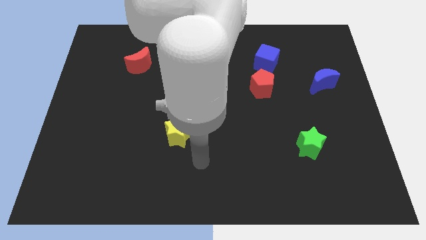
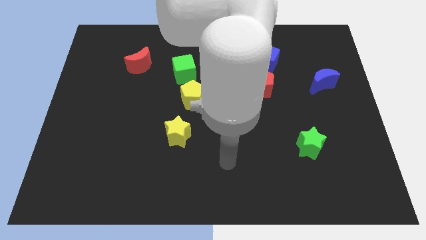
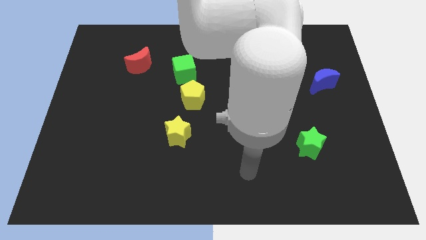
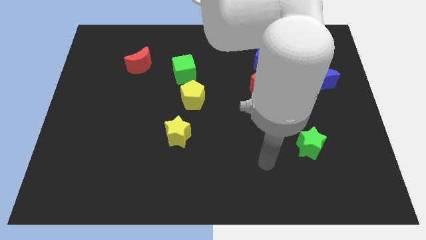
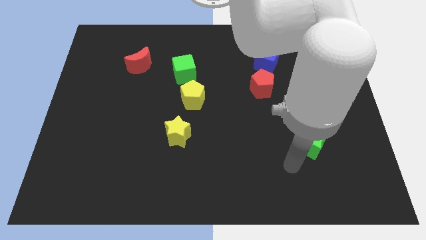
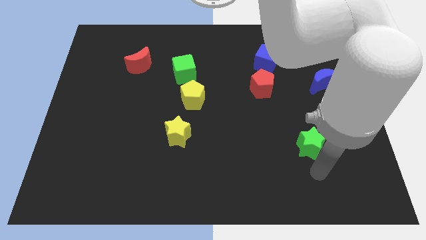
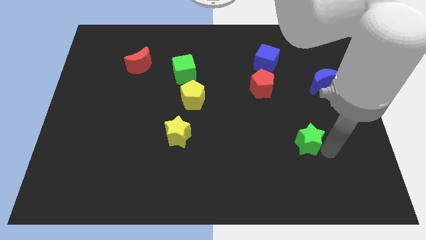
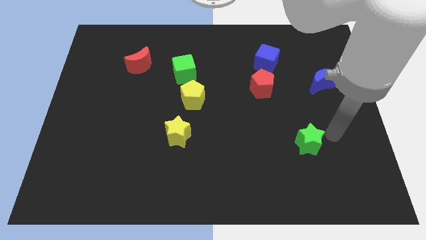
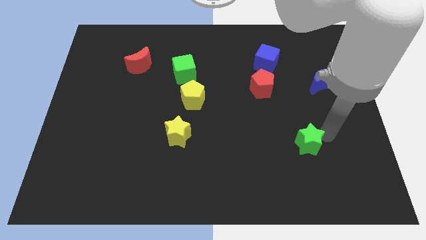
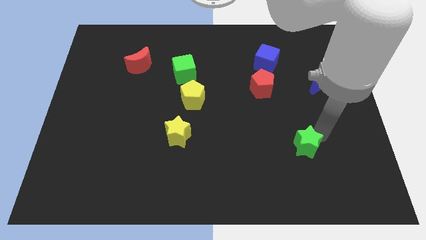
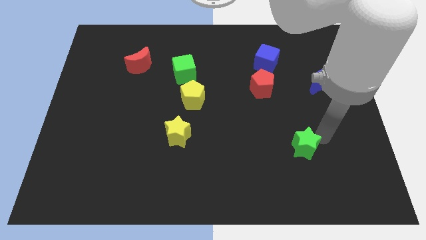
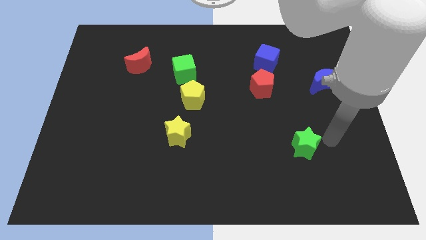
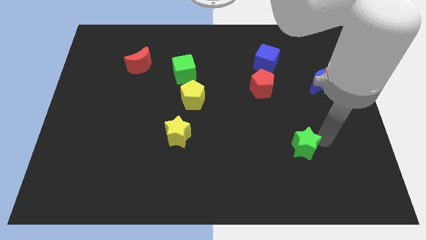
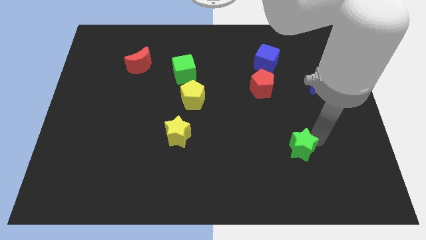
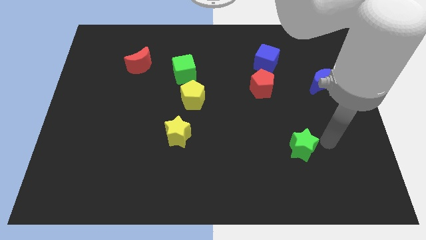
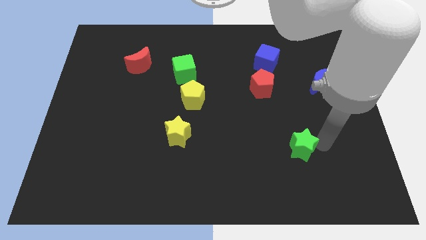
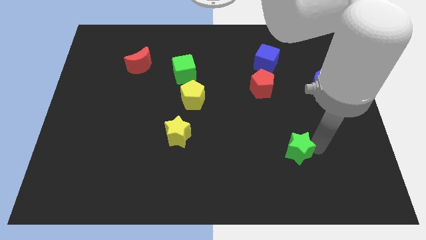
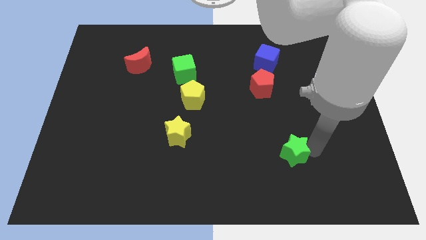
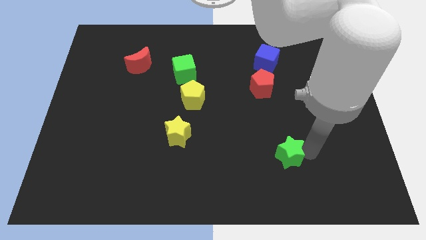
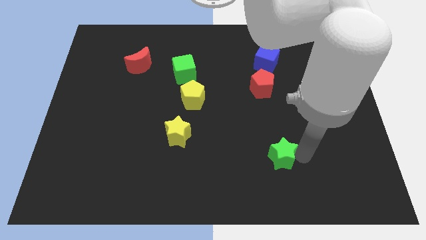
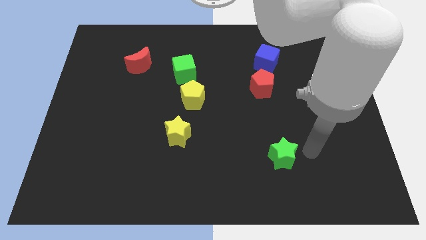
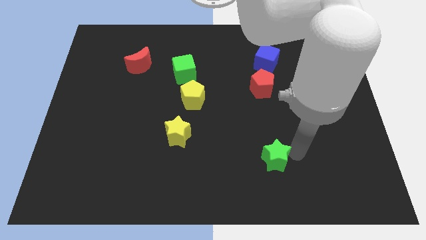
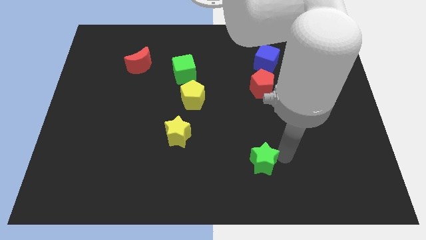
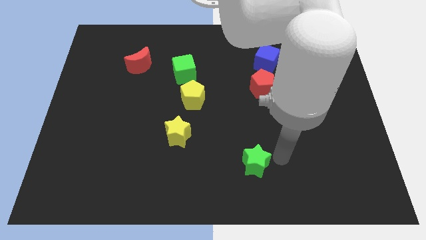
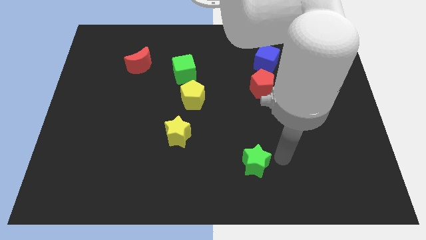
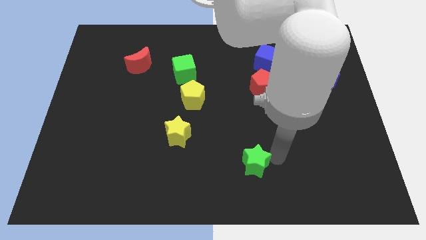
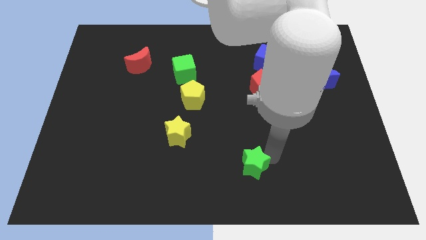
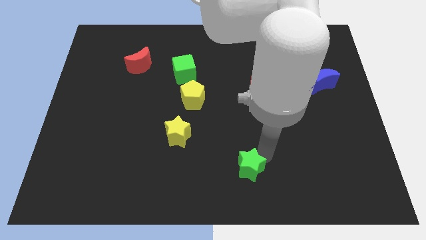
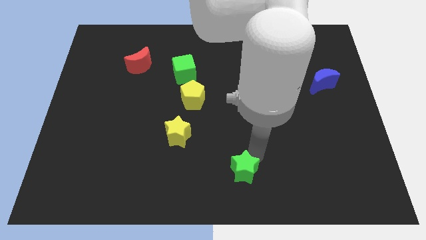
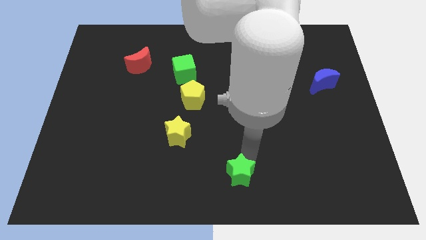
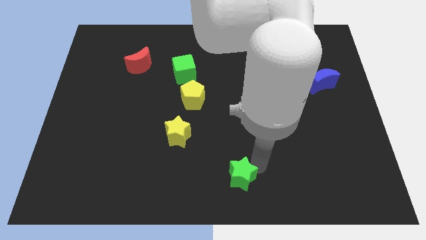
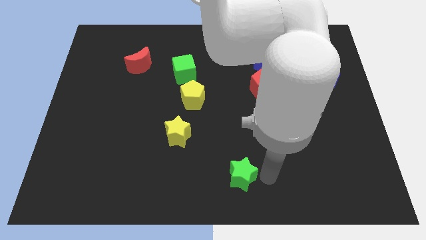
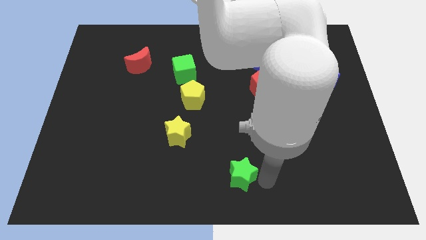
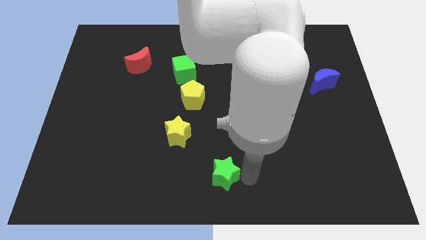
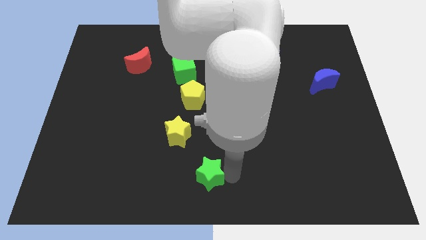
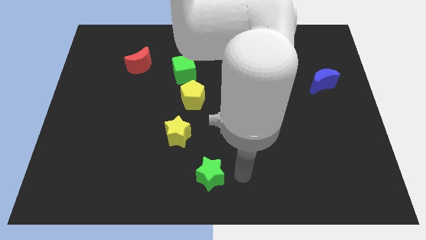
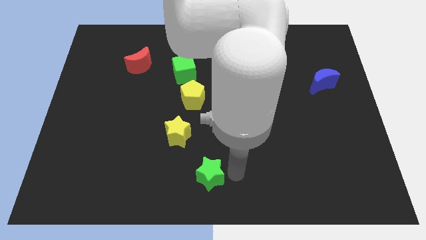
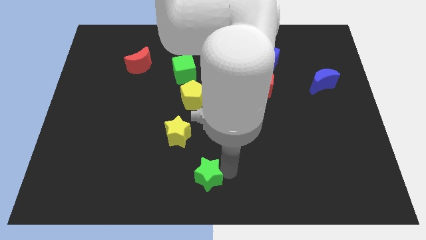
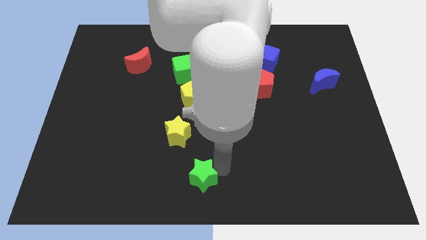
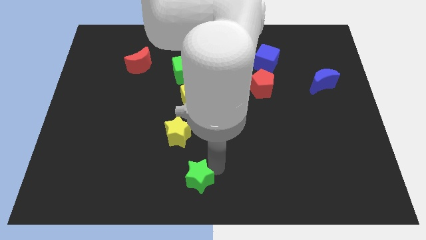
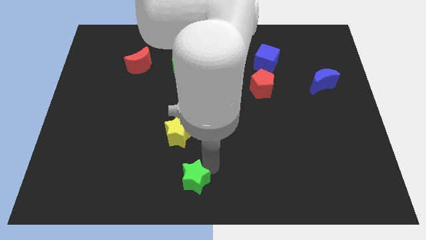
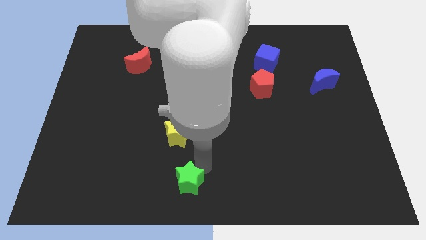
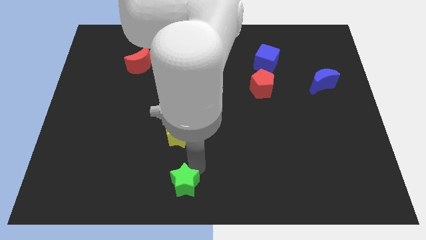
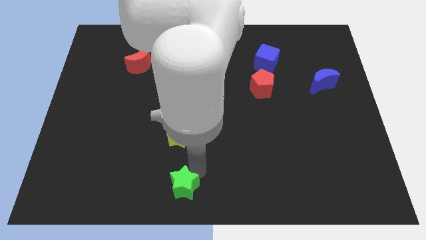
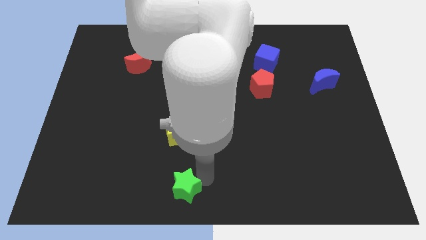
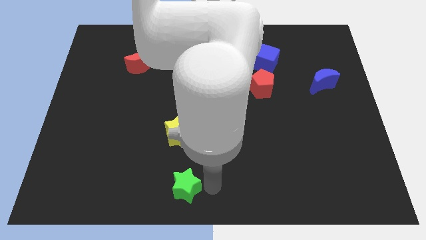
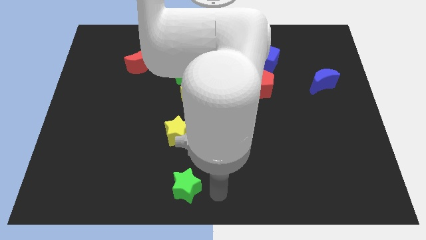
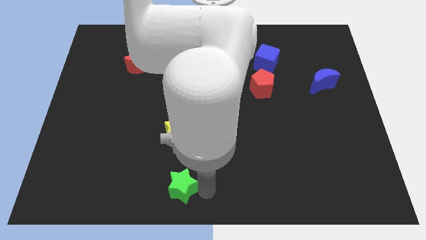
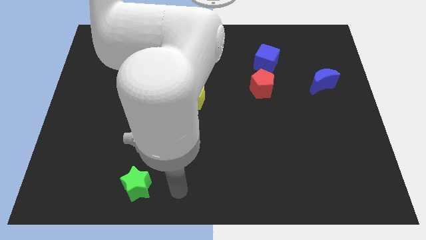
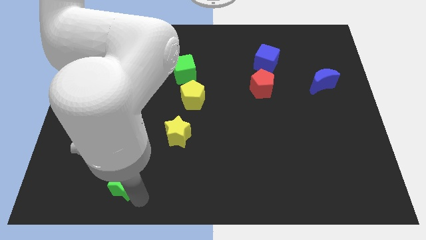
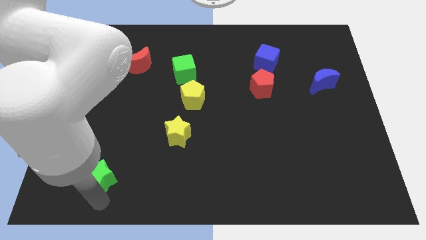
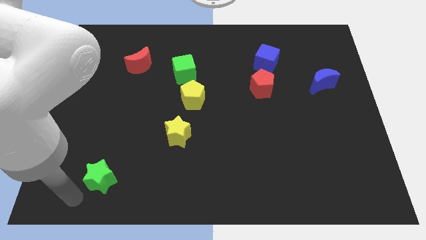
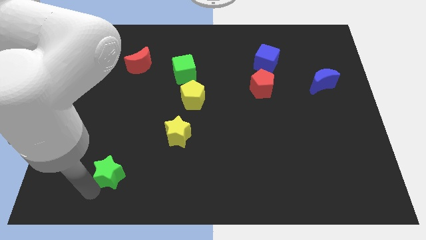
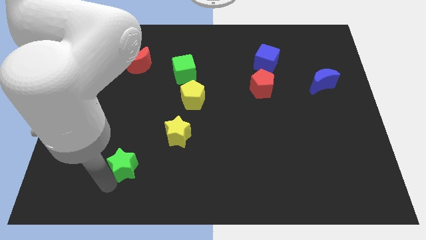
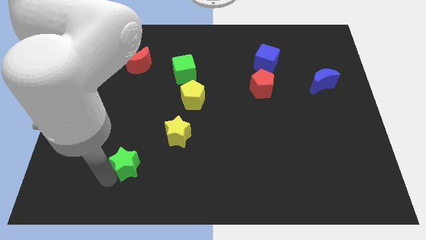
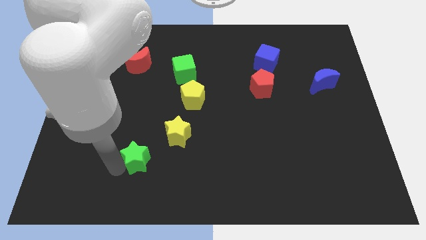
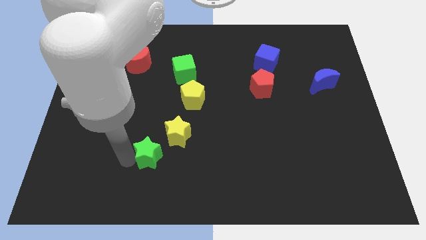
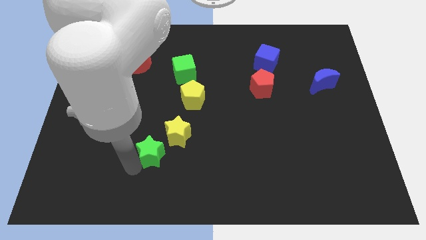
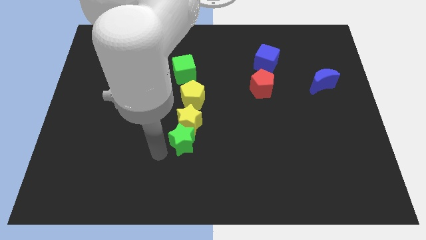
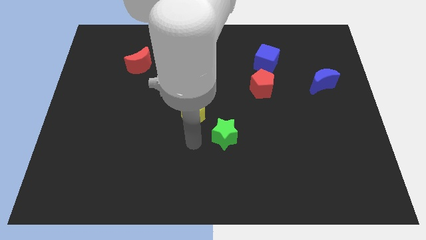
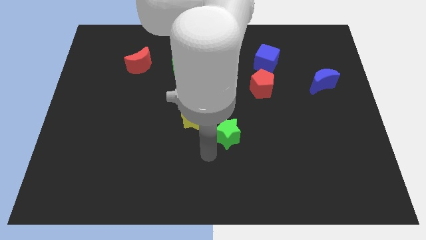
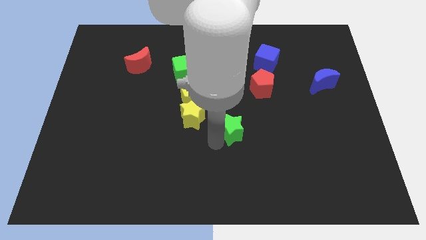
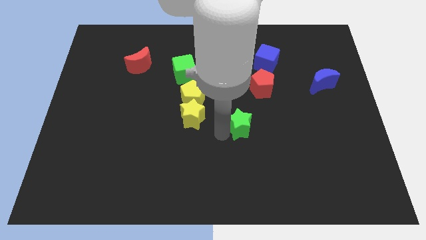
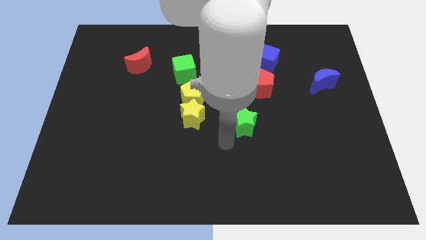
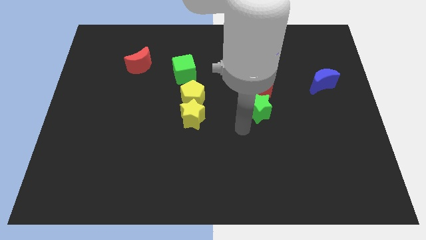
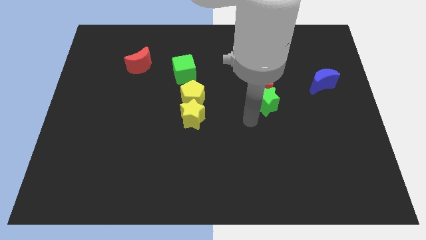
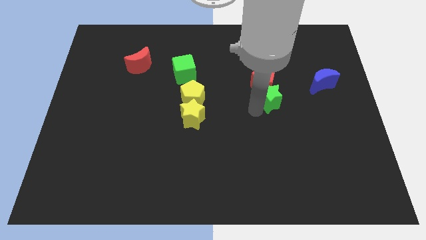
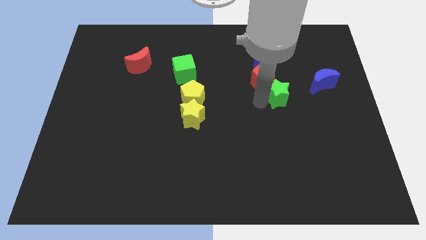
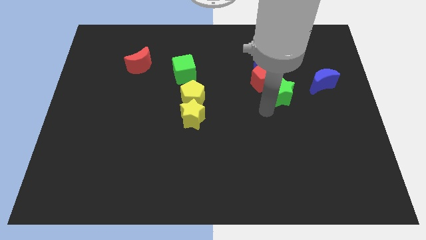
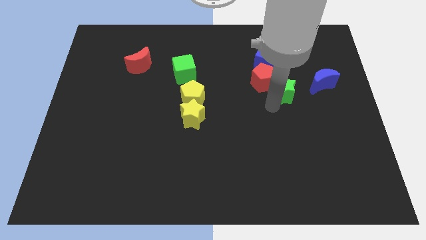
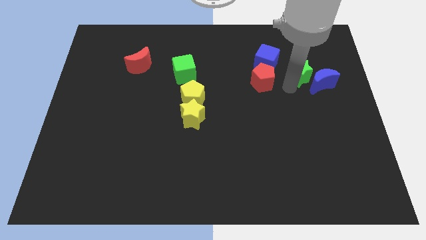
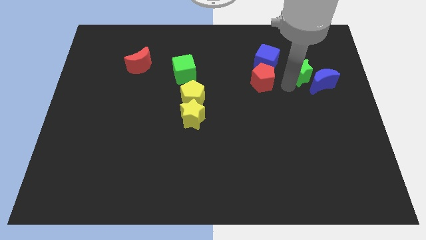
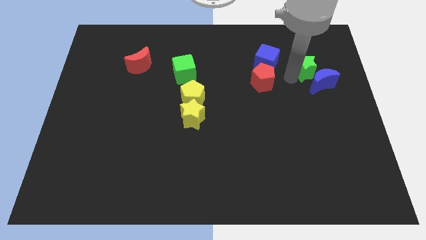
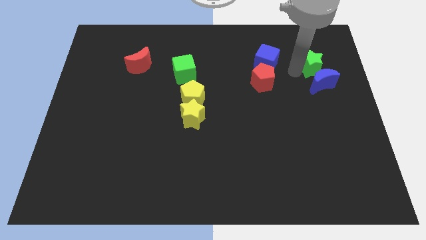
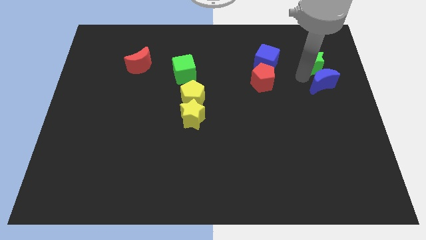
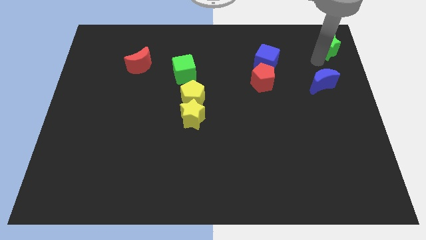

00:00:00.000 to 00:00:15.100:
slide the green star to the upper right corner
